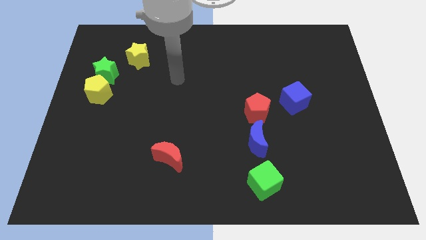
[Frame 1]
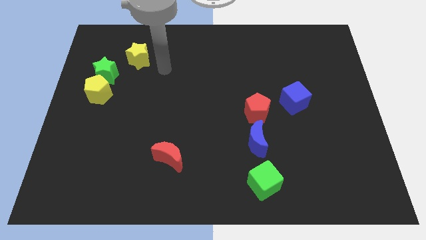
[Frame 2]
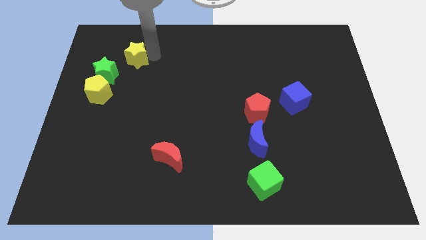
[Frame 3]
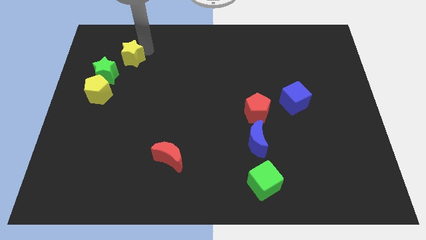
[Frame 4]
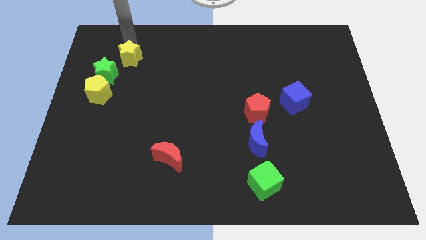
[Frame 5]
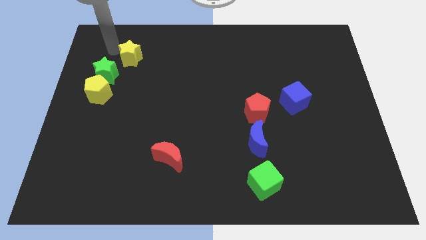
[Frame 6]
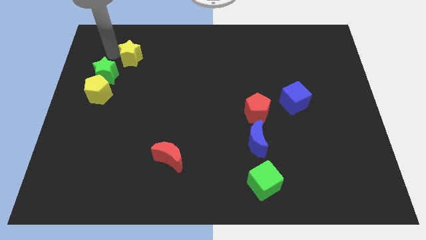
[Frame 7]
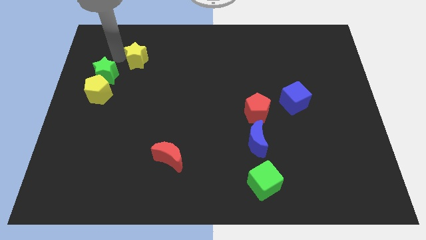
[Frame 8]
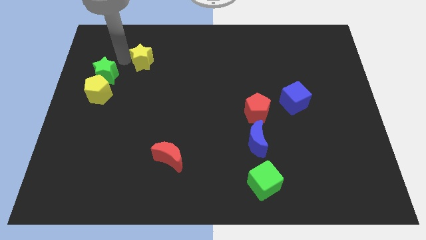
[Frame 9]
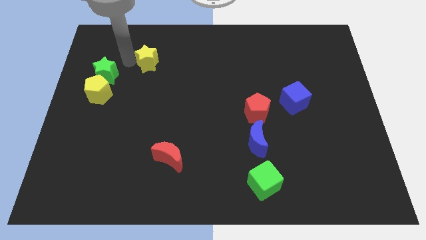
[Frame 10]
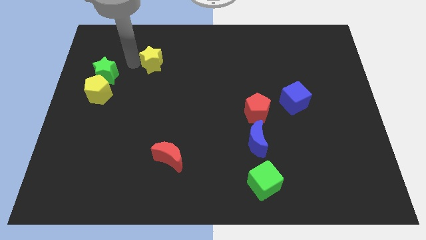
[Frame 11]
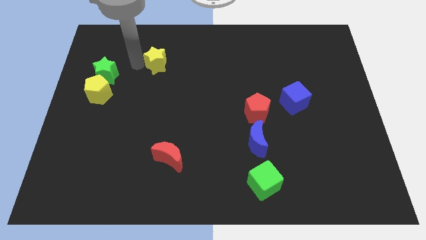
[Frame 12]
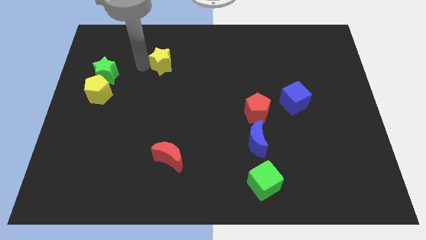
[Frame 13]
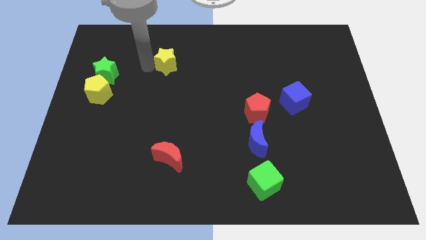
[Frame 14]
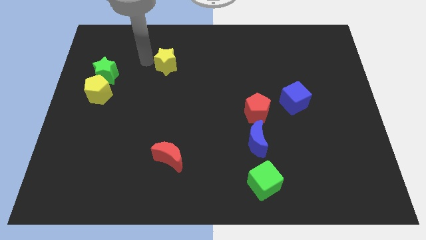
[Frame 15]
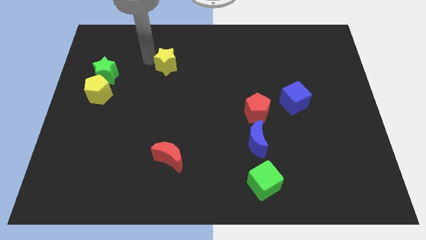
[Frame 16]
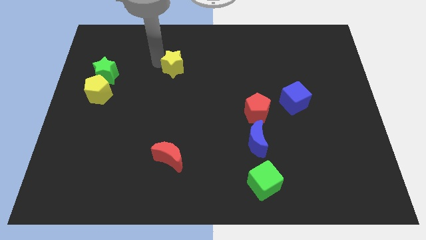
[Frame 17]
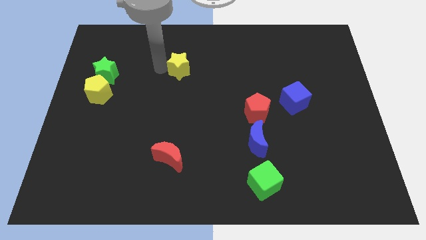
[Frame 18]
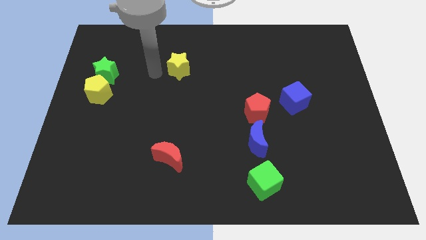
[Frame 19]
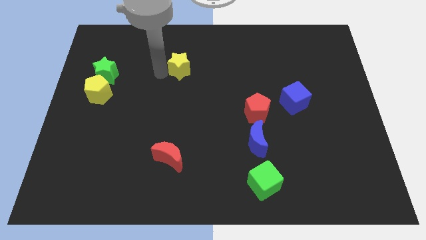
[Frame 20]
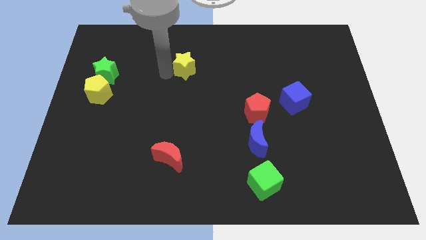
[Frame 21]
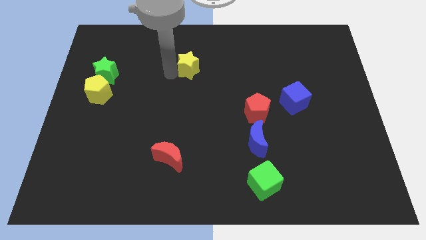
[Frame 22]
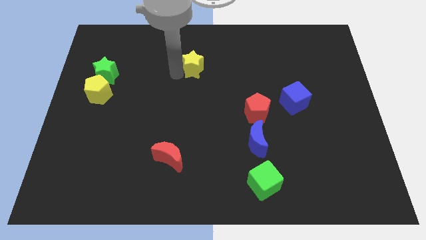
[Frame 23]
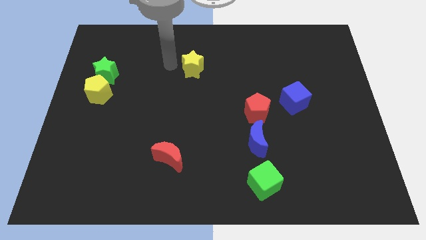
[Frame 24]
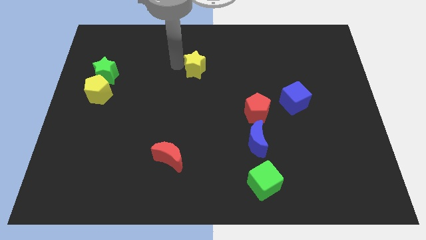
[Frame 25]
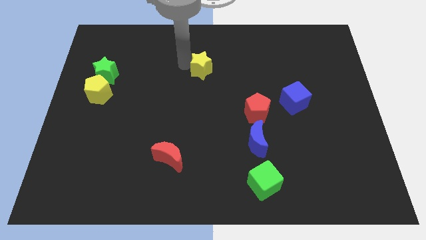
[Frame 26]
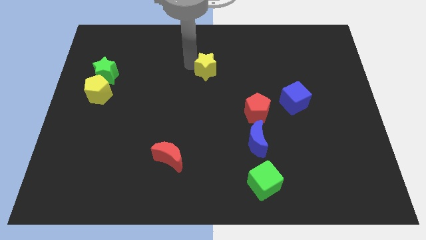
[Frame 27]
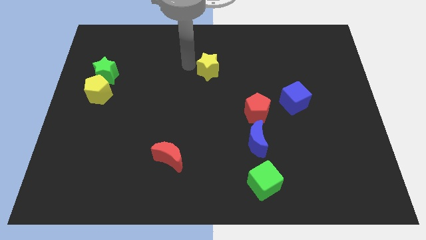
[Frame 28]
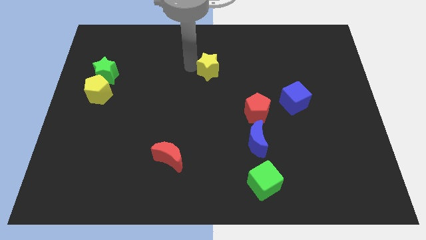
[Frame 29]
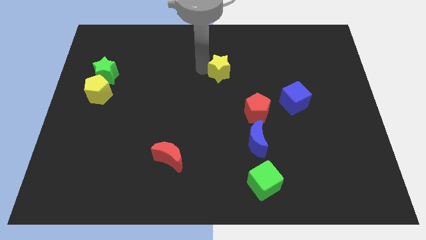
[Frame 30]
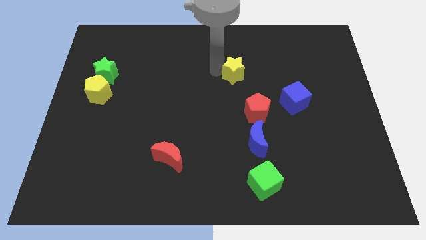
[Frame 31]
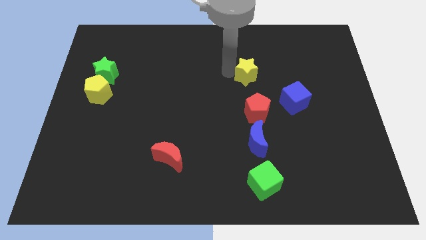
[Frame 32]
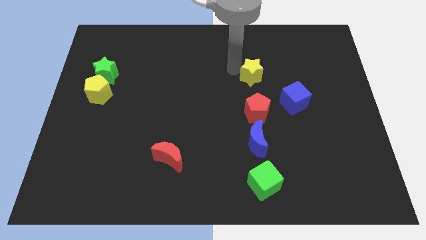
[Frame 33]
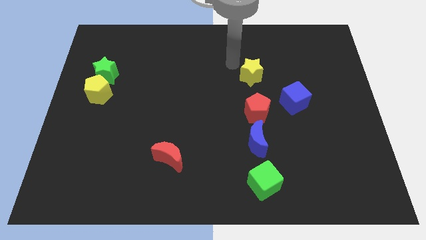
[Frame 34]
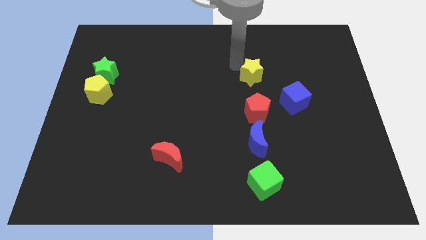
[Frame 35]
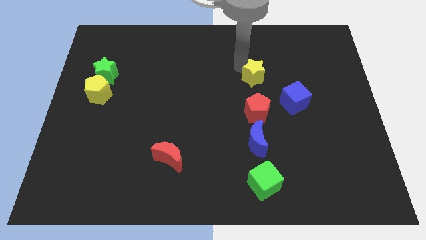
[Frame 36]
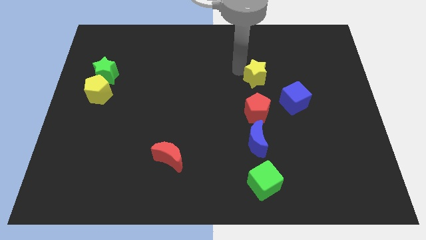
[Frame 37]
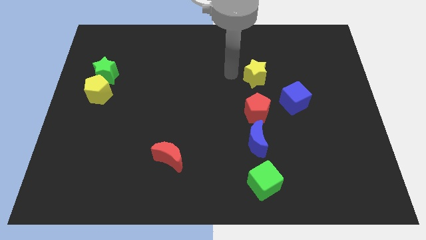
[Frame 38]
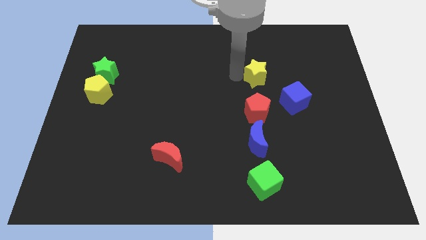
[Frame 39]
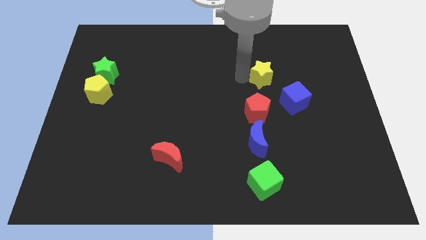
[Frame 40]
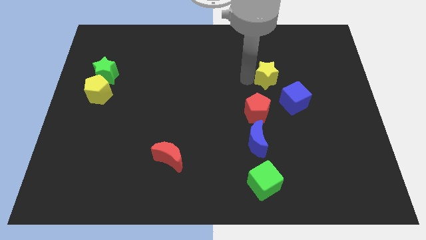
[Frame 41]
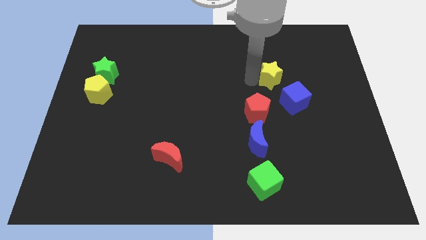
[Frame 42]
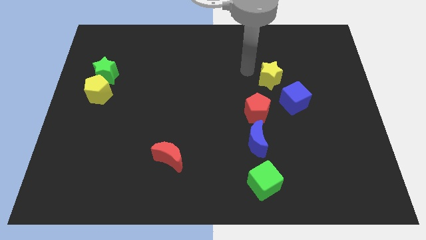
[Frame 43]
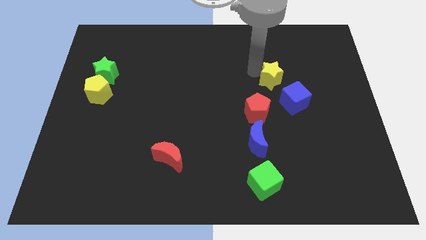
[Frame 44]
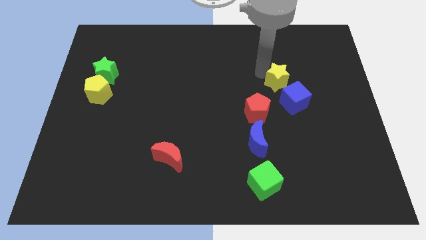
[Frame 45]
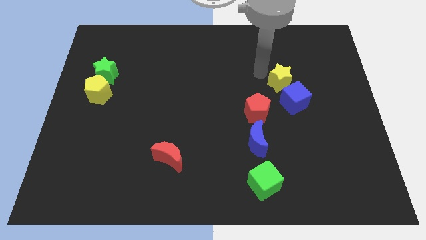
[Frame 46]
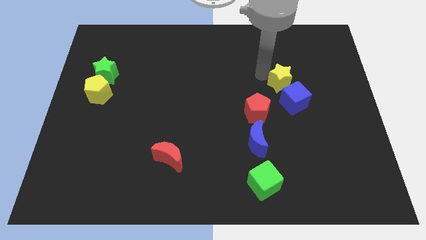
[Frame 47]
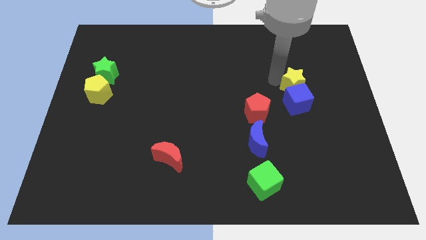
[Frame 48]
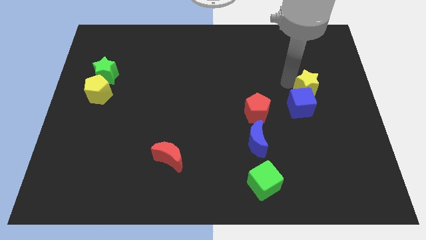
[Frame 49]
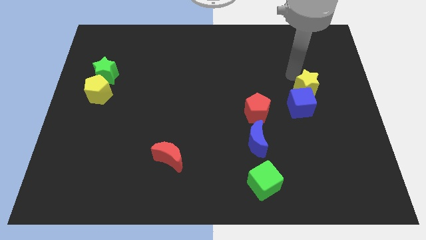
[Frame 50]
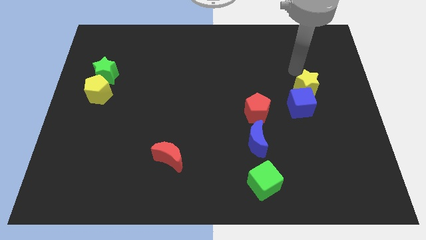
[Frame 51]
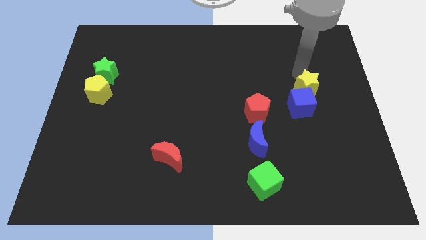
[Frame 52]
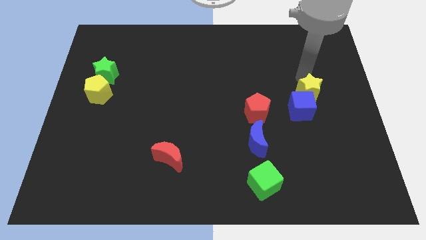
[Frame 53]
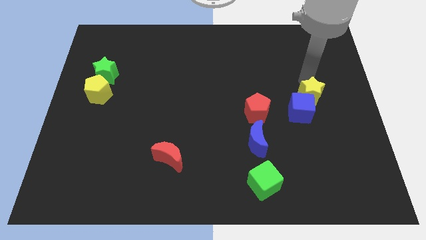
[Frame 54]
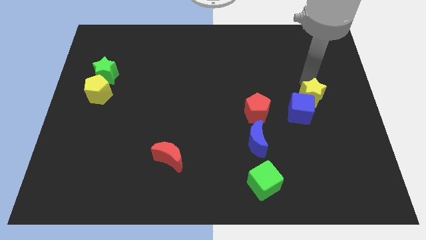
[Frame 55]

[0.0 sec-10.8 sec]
slide the yellow star right of the red pentagon

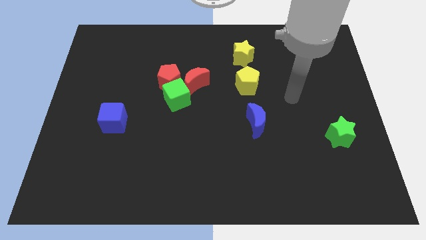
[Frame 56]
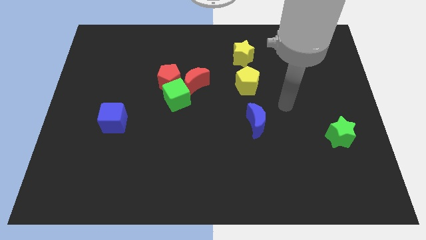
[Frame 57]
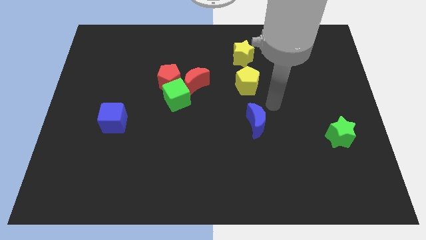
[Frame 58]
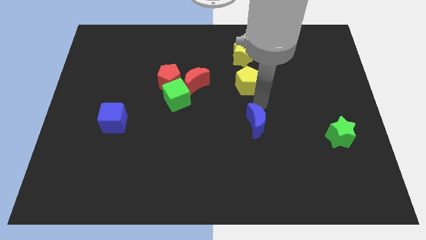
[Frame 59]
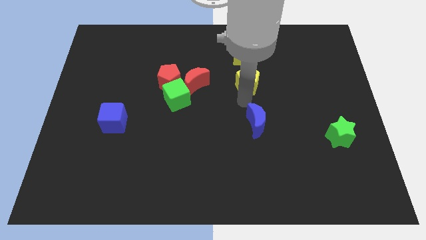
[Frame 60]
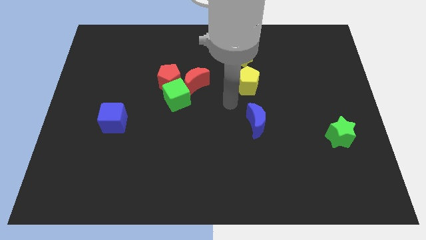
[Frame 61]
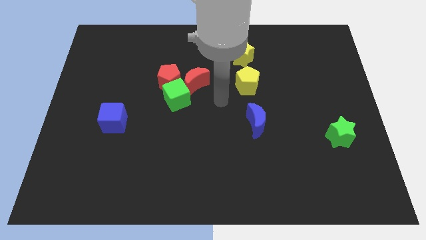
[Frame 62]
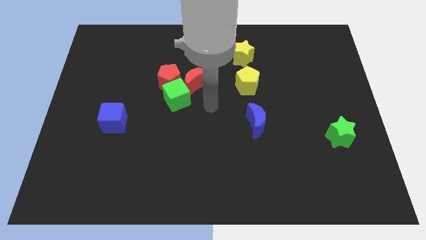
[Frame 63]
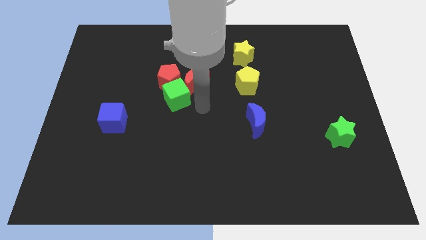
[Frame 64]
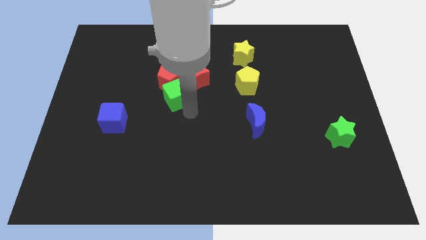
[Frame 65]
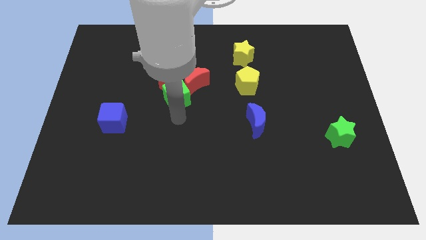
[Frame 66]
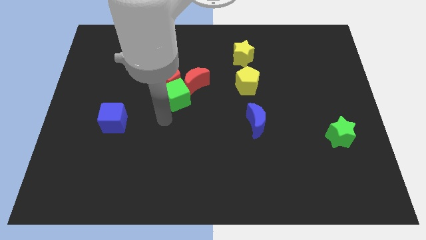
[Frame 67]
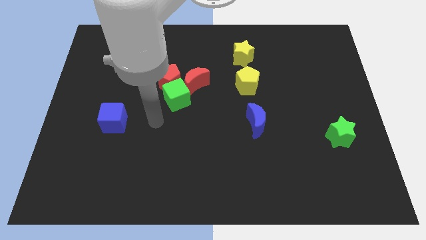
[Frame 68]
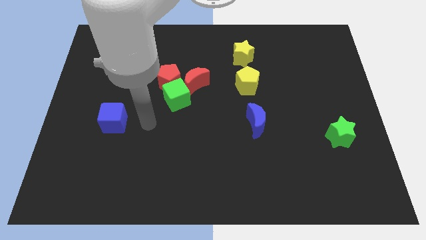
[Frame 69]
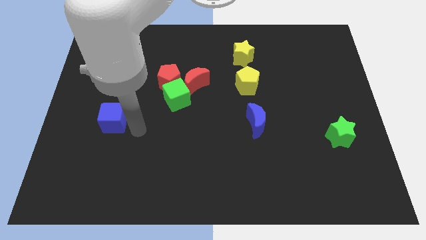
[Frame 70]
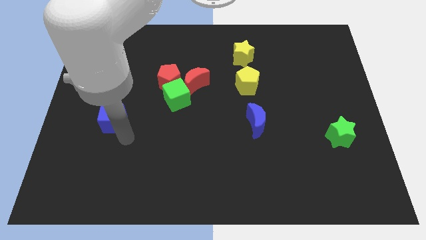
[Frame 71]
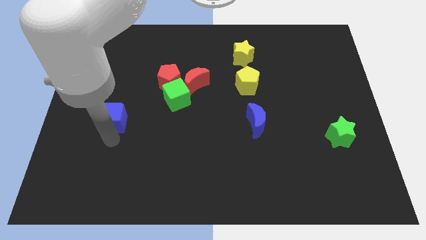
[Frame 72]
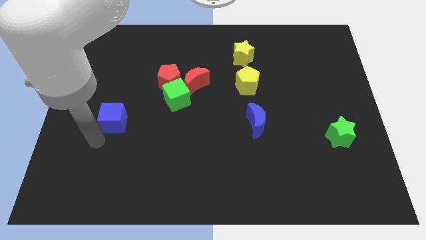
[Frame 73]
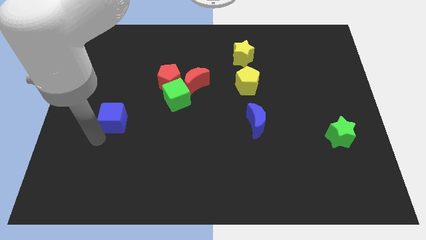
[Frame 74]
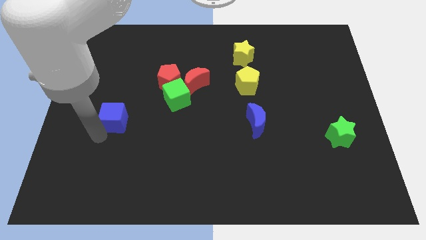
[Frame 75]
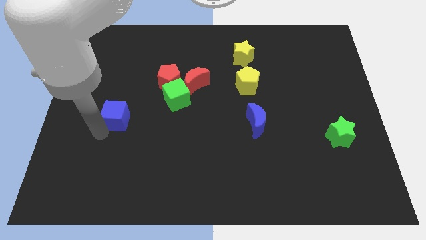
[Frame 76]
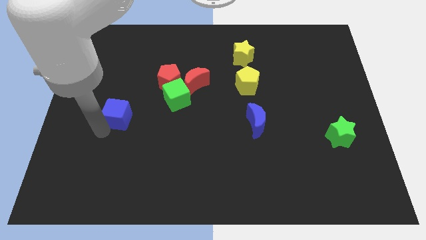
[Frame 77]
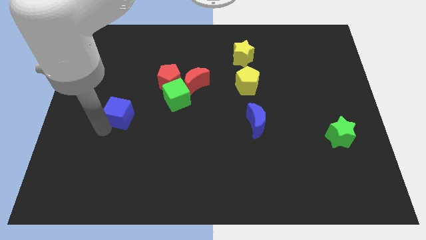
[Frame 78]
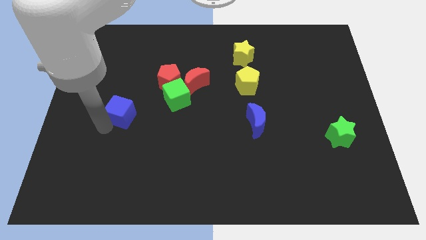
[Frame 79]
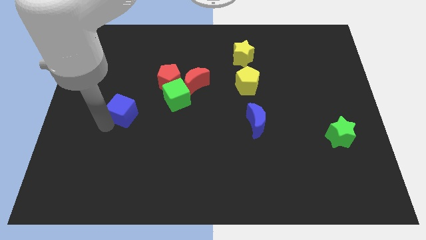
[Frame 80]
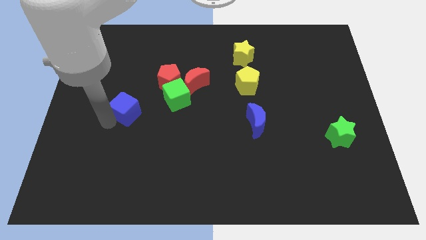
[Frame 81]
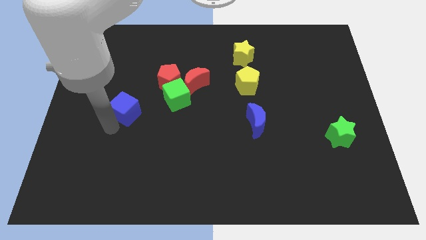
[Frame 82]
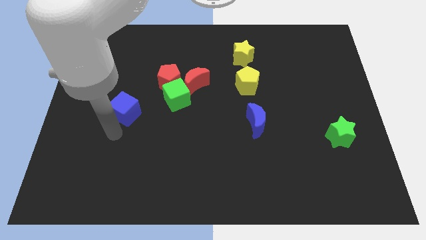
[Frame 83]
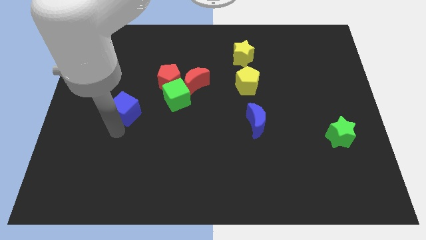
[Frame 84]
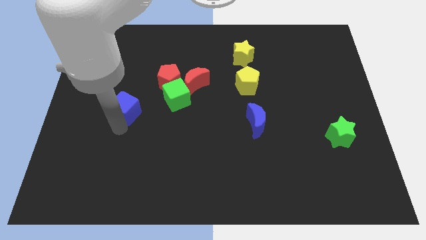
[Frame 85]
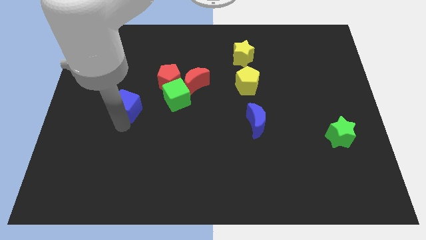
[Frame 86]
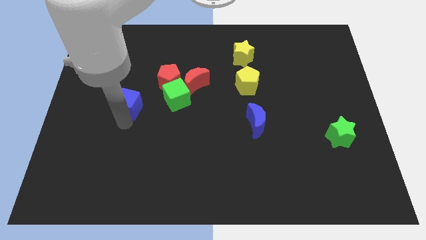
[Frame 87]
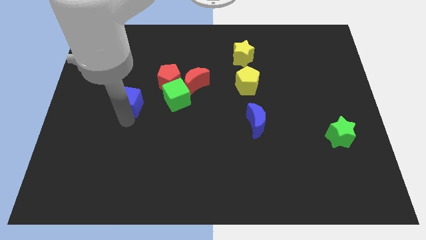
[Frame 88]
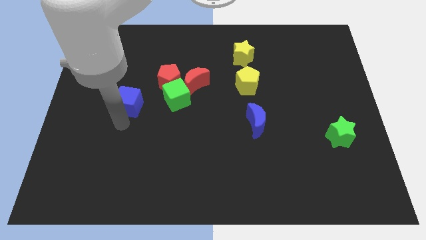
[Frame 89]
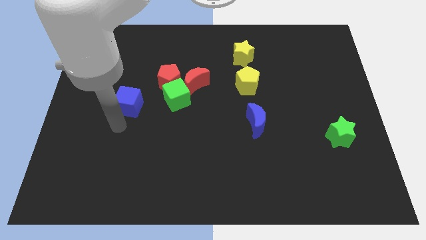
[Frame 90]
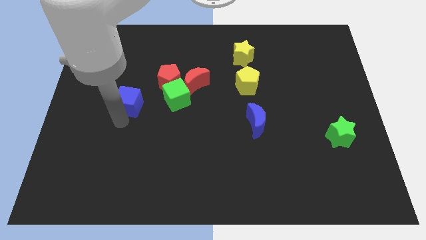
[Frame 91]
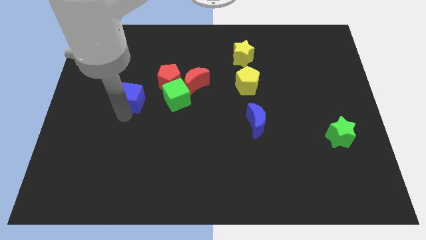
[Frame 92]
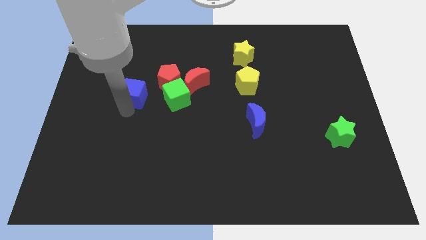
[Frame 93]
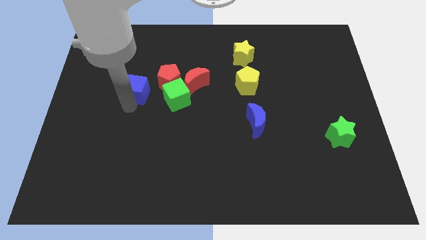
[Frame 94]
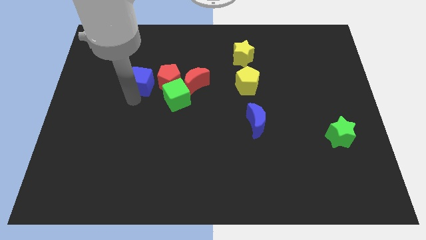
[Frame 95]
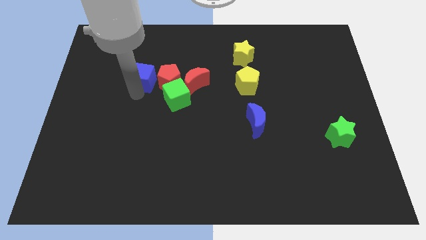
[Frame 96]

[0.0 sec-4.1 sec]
push the blue cube diagonally up and to the left of the red pentagon
